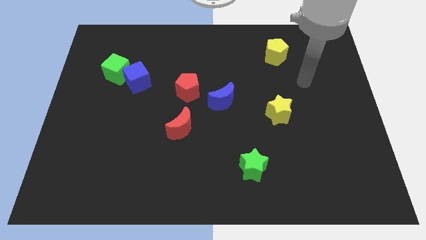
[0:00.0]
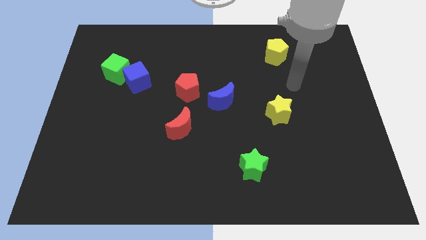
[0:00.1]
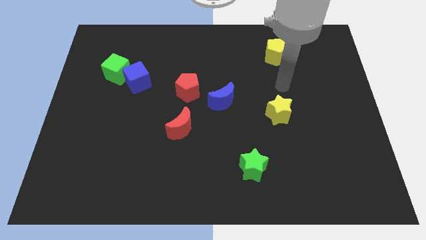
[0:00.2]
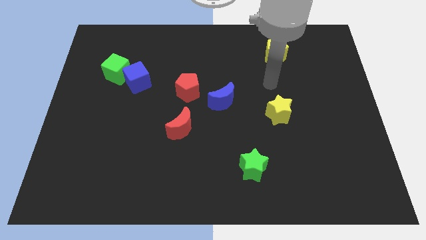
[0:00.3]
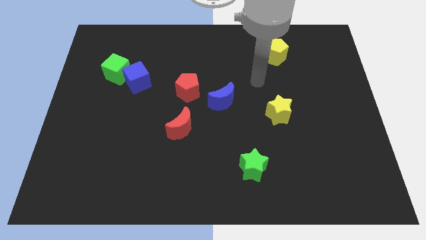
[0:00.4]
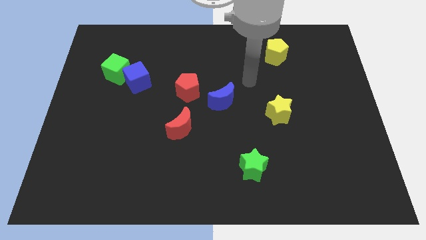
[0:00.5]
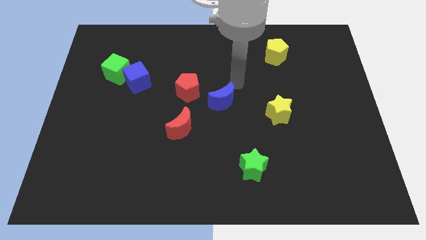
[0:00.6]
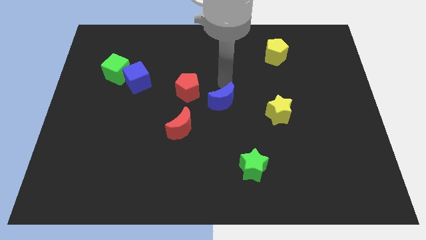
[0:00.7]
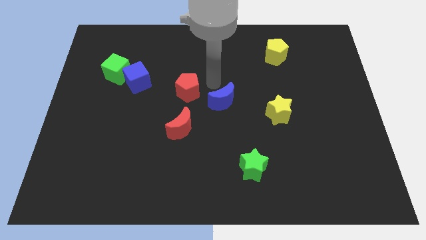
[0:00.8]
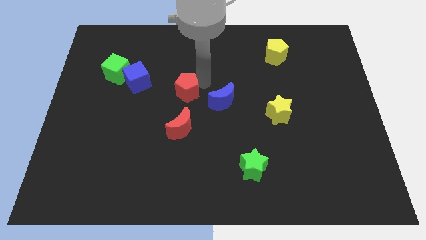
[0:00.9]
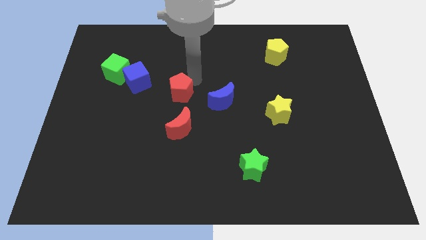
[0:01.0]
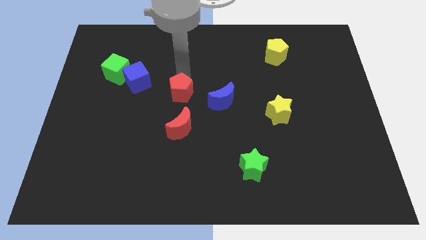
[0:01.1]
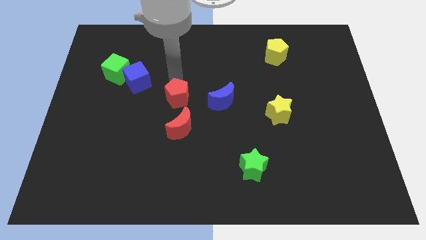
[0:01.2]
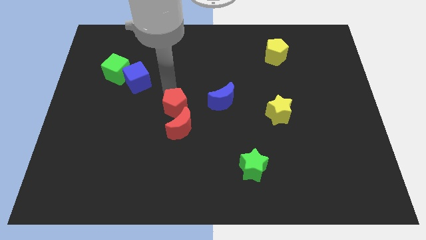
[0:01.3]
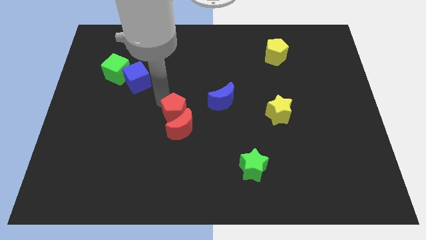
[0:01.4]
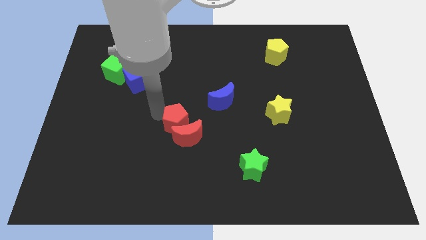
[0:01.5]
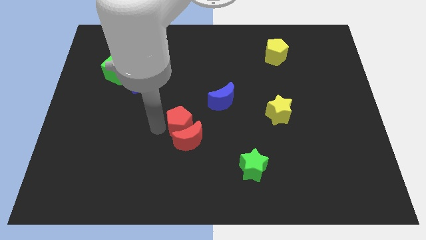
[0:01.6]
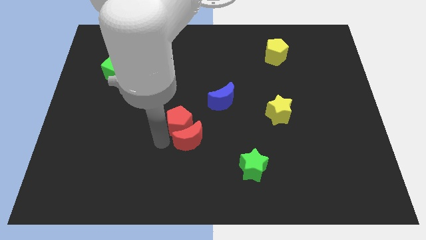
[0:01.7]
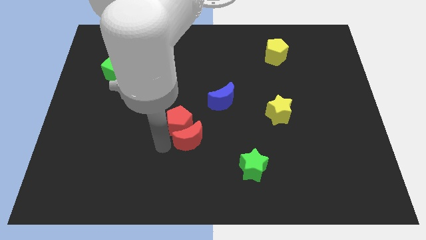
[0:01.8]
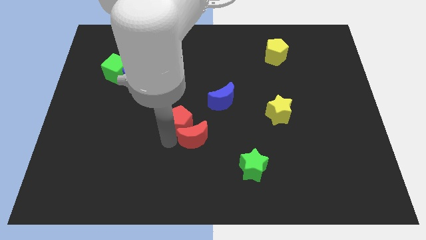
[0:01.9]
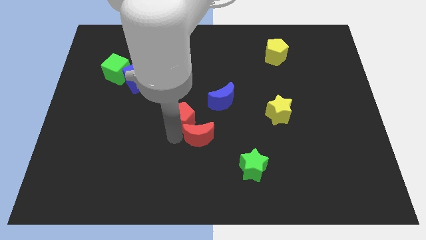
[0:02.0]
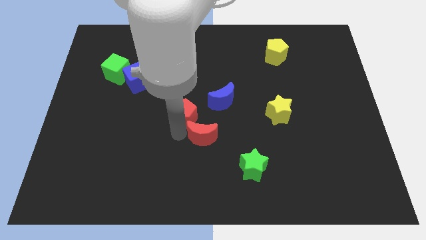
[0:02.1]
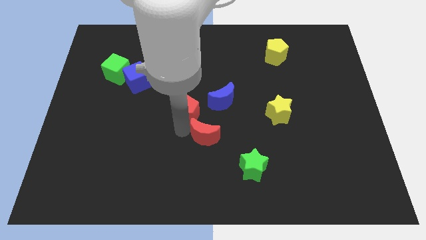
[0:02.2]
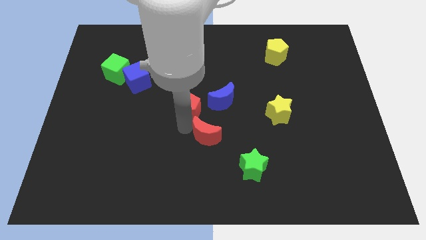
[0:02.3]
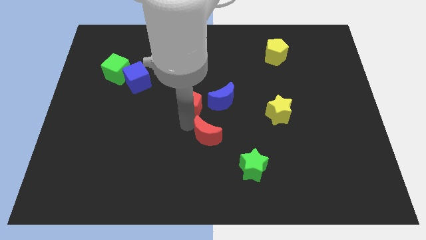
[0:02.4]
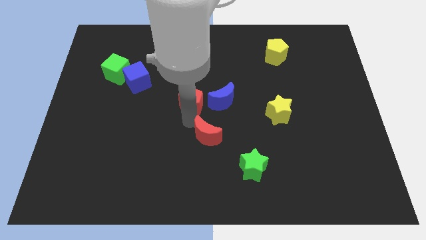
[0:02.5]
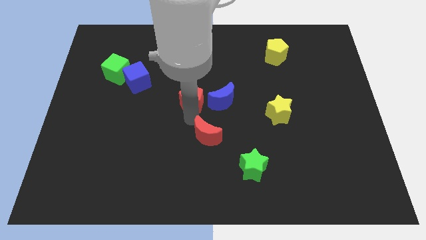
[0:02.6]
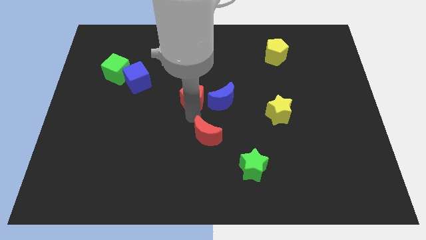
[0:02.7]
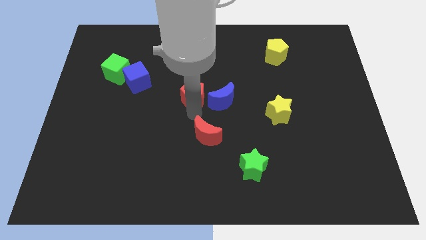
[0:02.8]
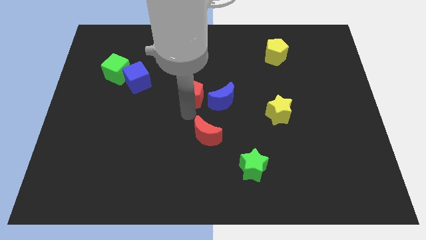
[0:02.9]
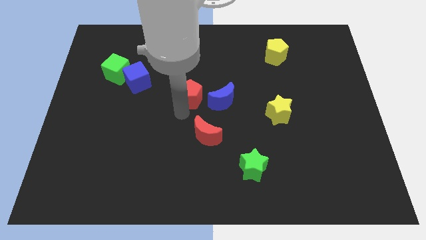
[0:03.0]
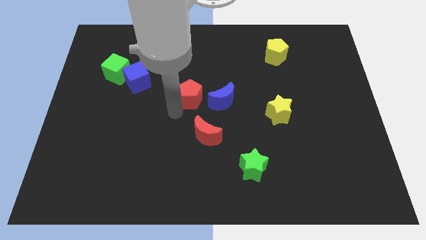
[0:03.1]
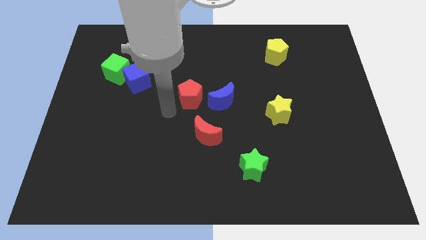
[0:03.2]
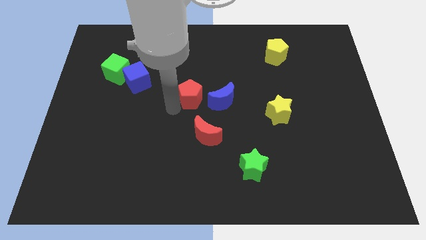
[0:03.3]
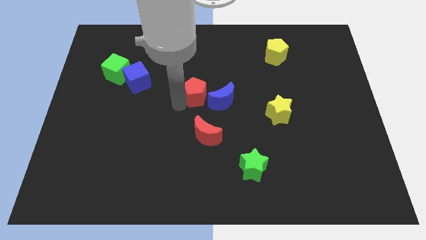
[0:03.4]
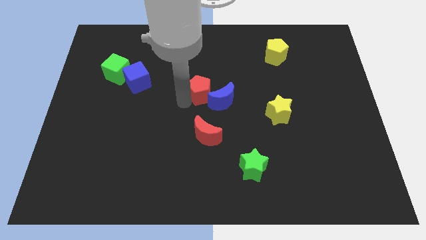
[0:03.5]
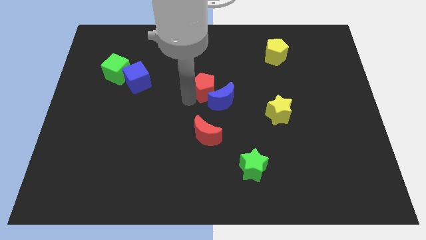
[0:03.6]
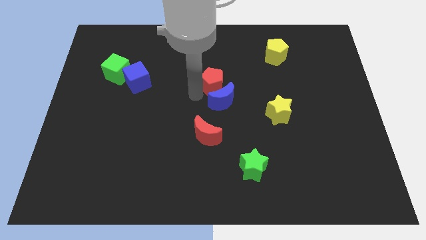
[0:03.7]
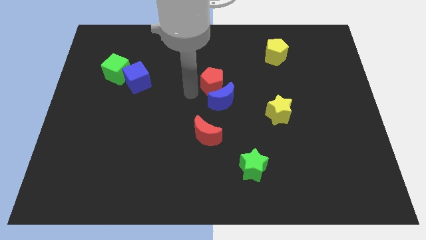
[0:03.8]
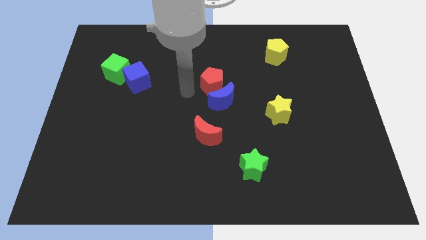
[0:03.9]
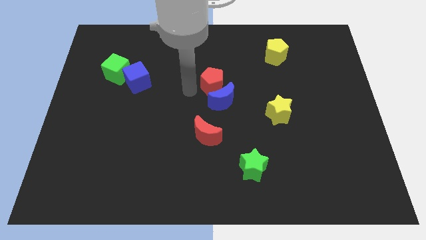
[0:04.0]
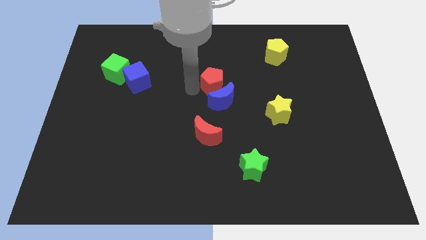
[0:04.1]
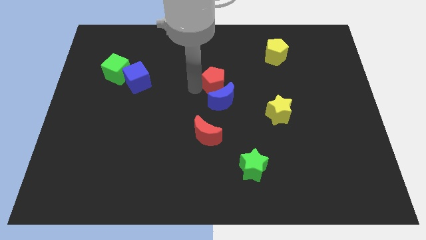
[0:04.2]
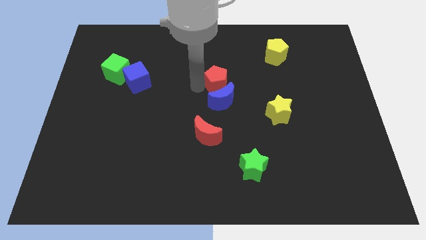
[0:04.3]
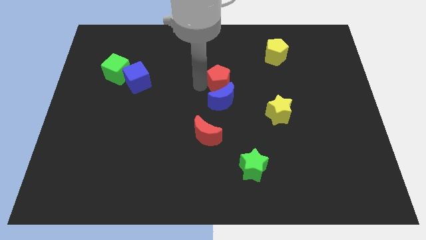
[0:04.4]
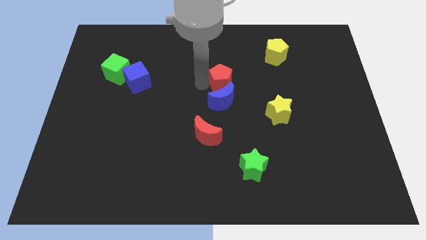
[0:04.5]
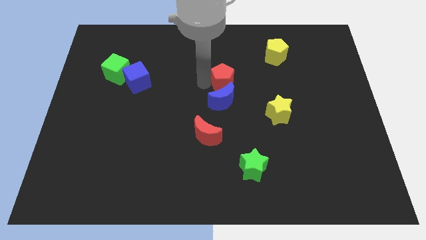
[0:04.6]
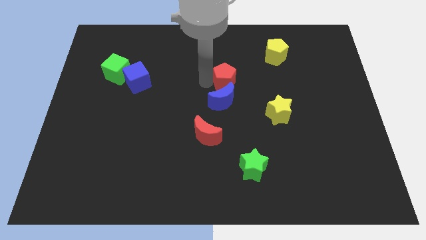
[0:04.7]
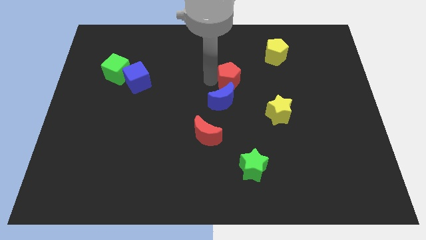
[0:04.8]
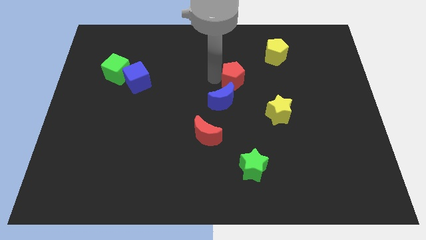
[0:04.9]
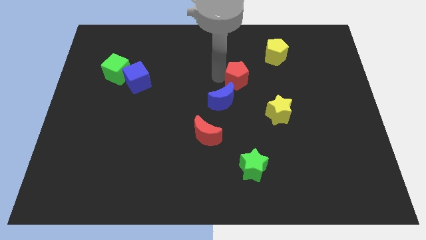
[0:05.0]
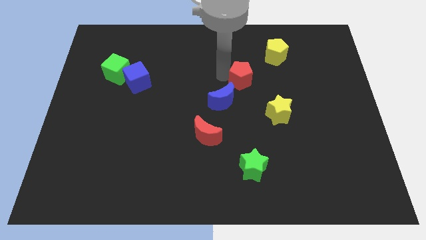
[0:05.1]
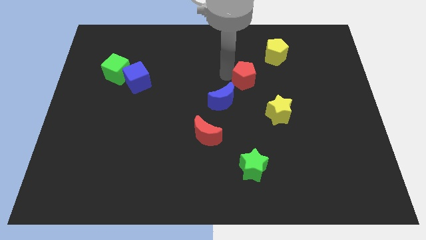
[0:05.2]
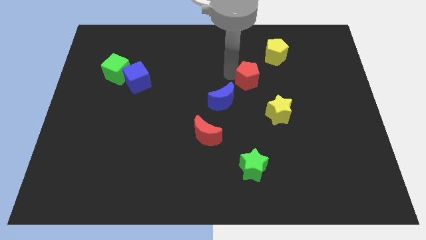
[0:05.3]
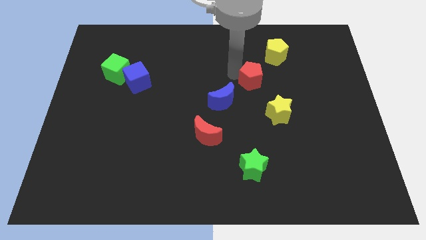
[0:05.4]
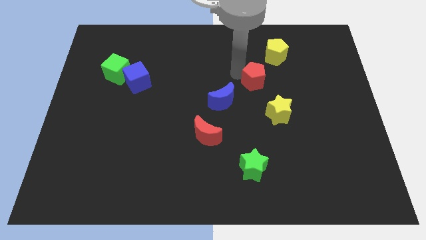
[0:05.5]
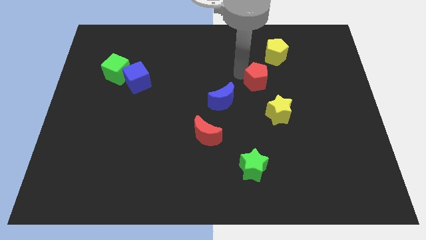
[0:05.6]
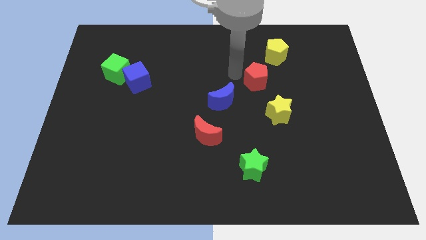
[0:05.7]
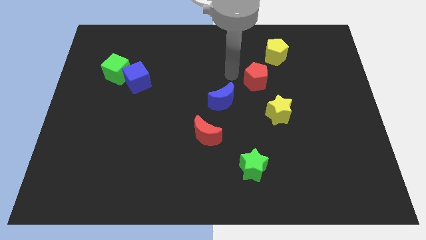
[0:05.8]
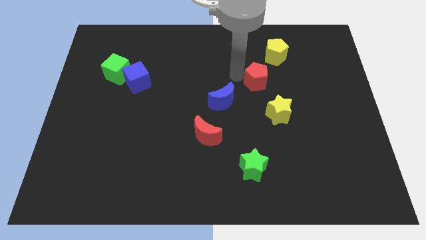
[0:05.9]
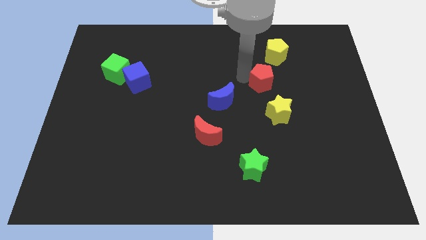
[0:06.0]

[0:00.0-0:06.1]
push the red pentagon to the bottom side of the yellow pentagon

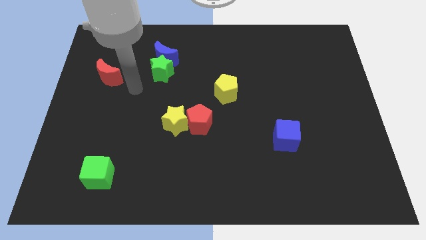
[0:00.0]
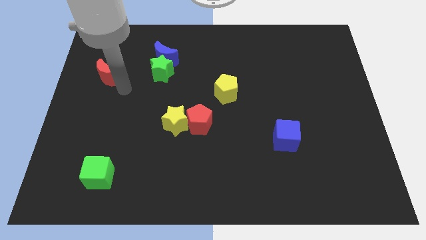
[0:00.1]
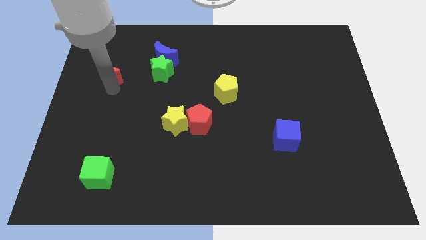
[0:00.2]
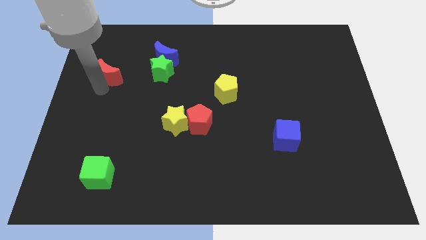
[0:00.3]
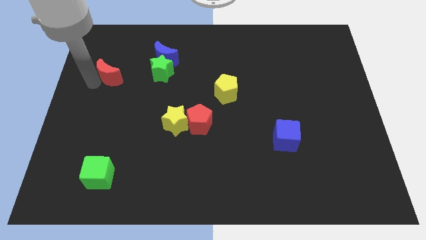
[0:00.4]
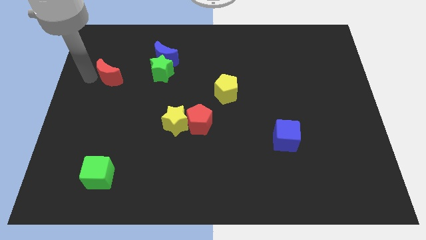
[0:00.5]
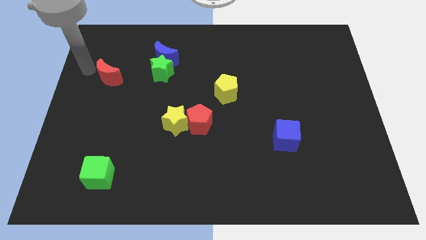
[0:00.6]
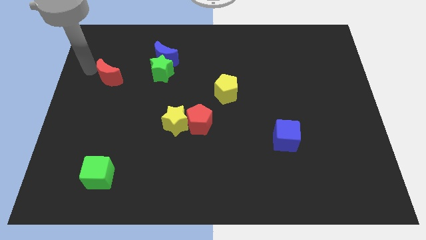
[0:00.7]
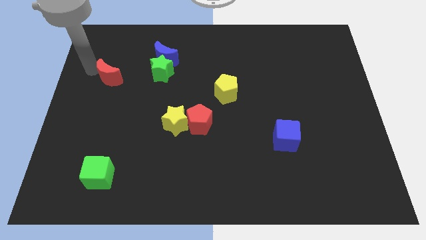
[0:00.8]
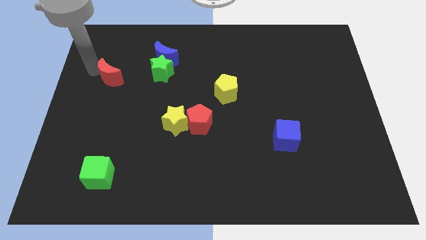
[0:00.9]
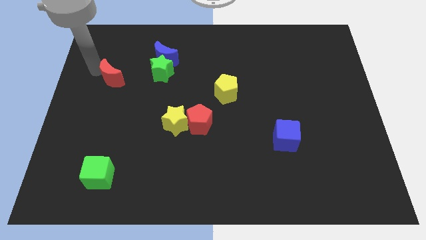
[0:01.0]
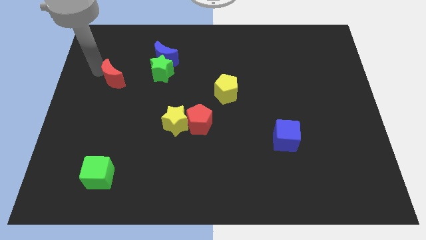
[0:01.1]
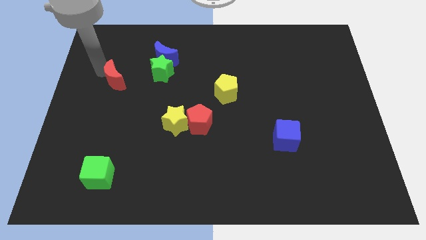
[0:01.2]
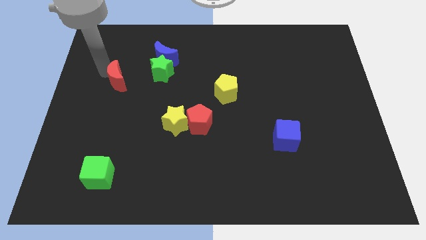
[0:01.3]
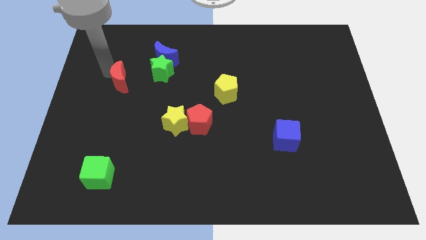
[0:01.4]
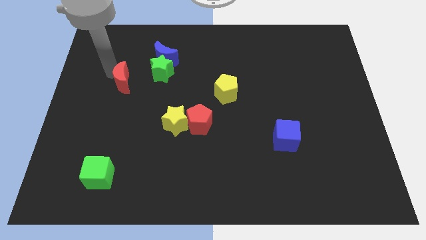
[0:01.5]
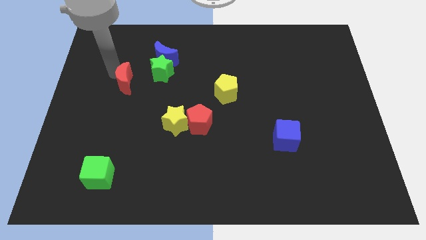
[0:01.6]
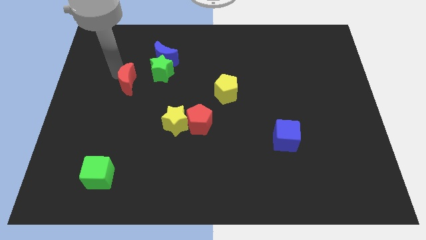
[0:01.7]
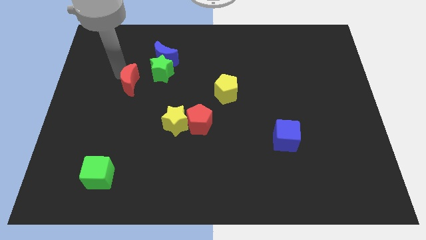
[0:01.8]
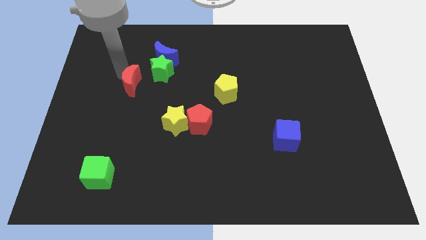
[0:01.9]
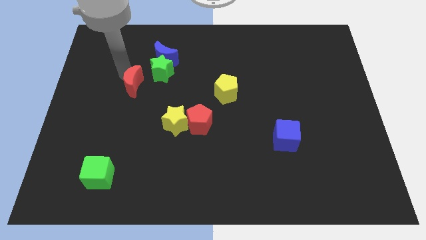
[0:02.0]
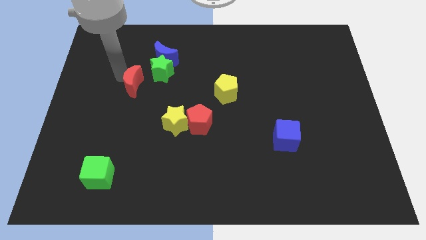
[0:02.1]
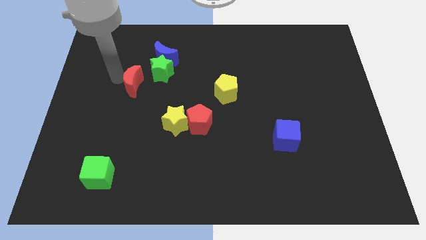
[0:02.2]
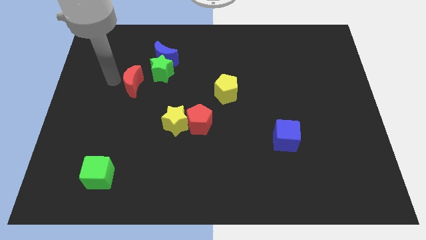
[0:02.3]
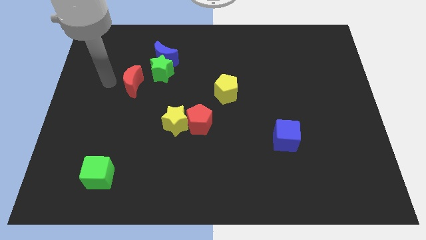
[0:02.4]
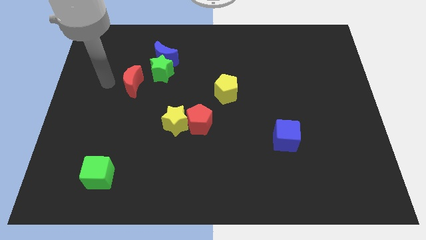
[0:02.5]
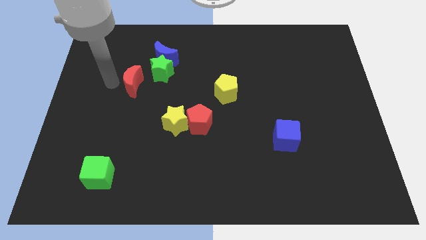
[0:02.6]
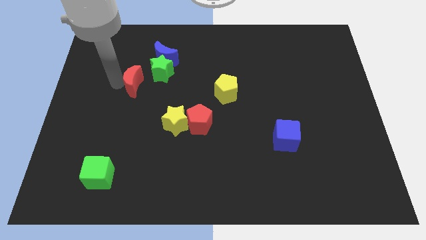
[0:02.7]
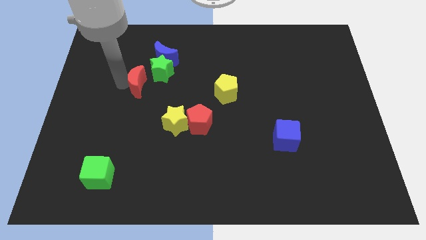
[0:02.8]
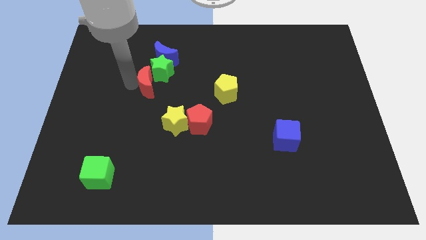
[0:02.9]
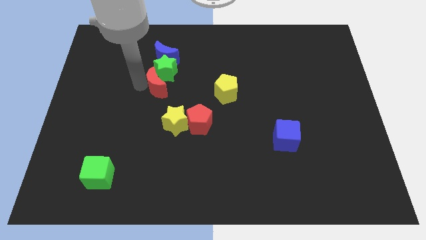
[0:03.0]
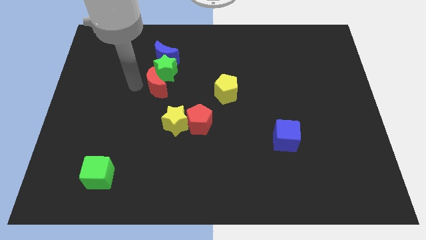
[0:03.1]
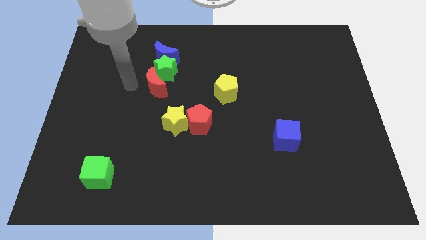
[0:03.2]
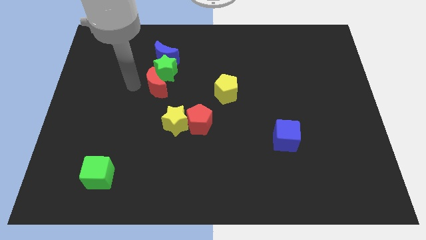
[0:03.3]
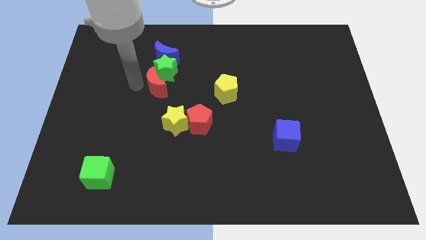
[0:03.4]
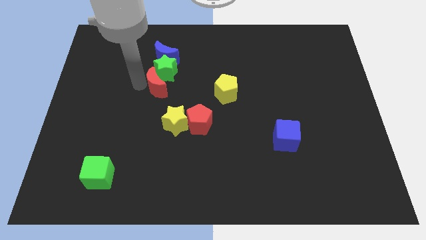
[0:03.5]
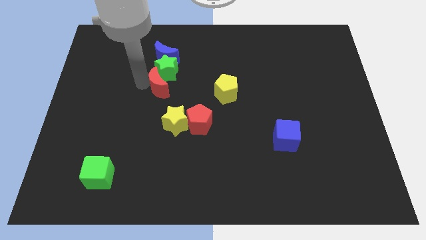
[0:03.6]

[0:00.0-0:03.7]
push the red moon to the top side of the yellow star
